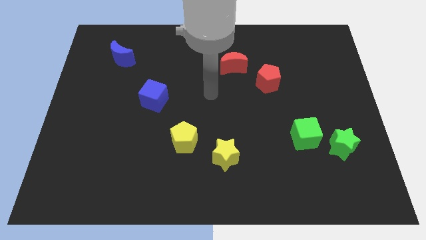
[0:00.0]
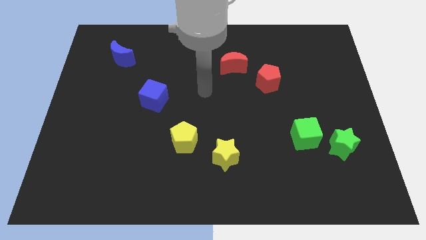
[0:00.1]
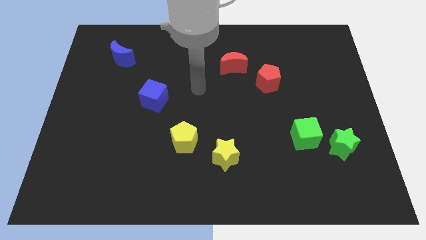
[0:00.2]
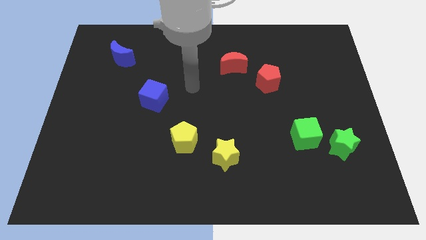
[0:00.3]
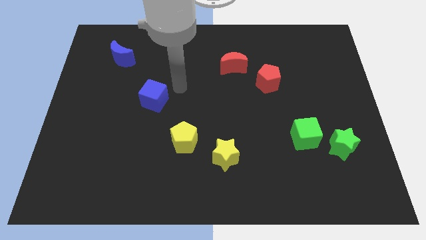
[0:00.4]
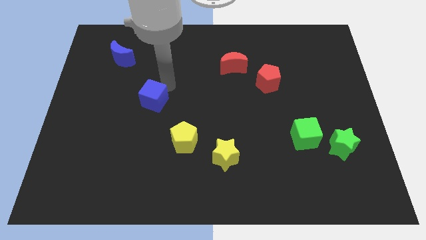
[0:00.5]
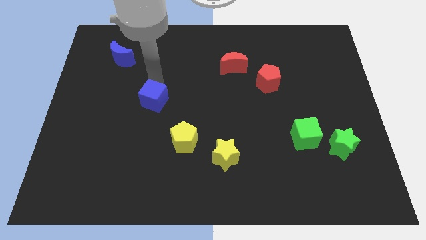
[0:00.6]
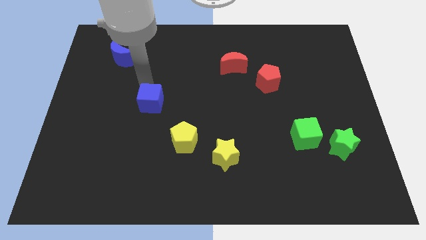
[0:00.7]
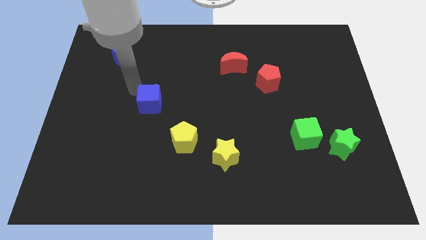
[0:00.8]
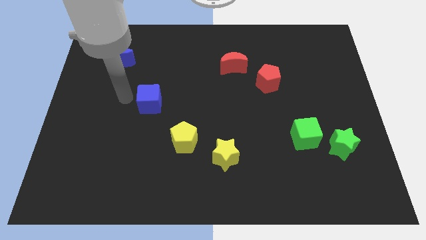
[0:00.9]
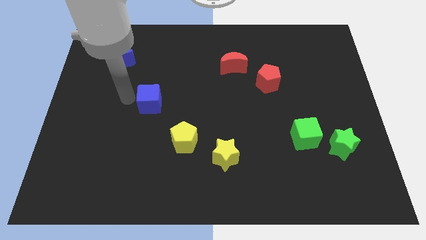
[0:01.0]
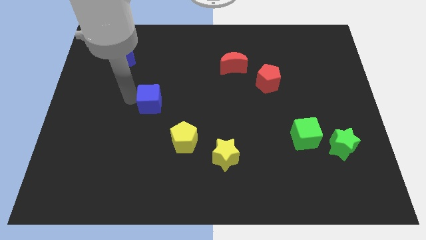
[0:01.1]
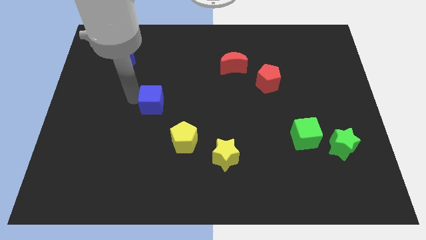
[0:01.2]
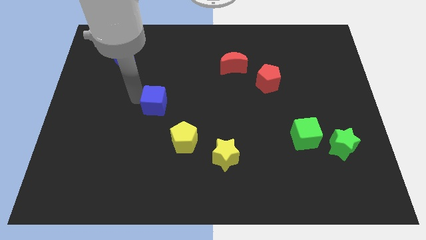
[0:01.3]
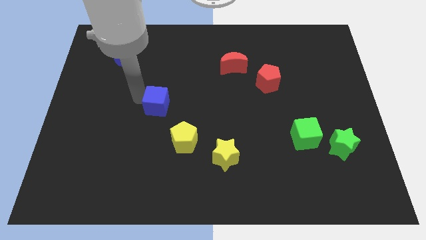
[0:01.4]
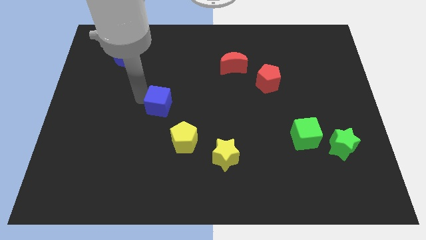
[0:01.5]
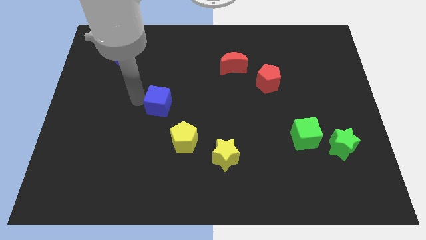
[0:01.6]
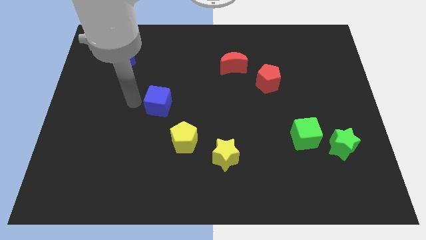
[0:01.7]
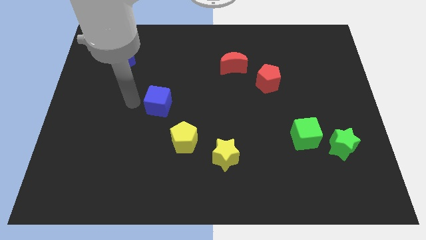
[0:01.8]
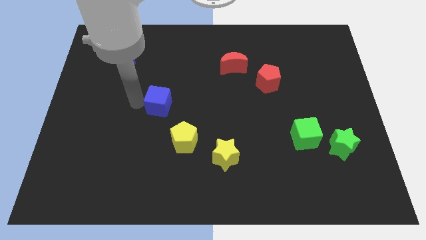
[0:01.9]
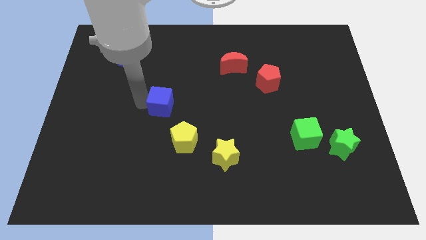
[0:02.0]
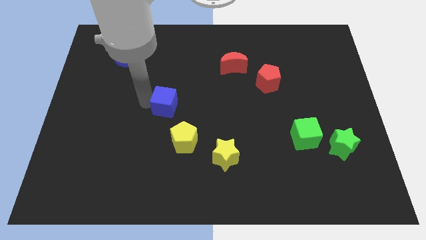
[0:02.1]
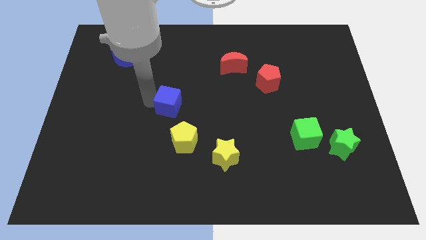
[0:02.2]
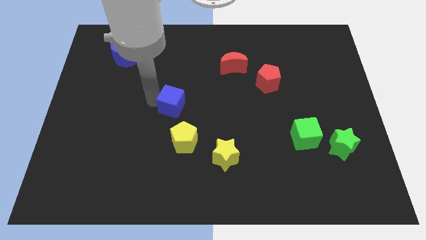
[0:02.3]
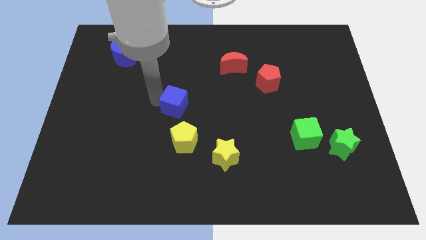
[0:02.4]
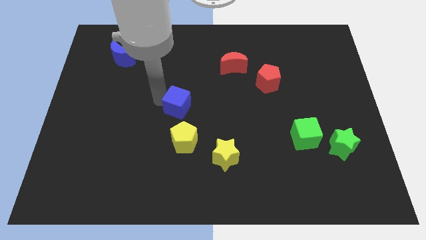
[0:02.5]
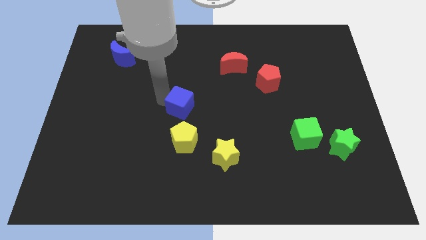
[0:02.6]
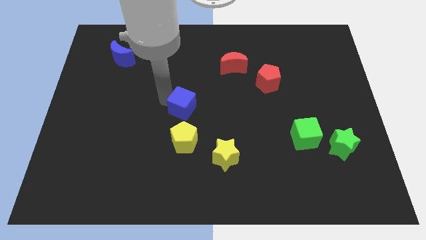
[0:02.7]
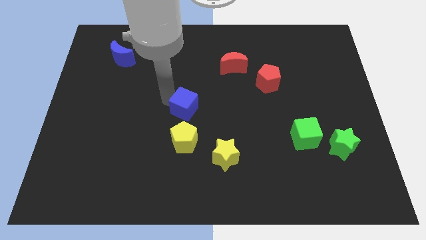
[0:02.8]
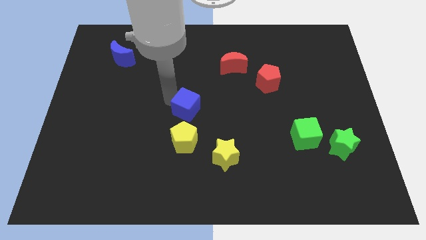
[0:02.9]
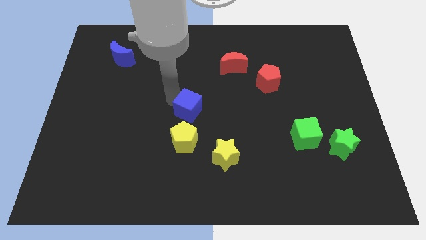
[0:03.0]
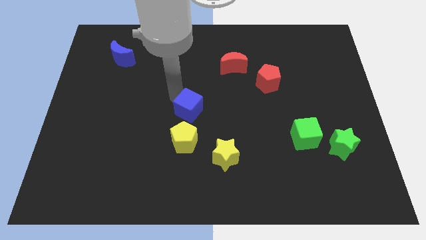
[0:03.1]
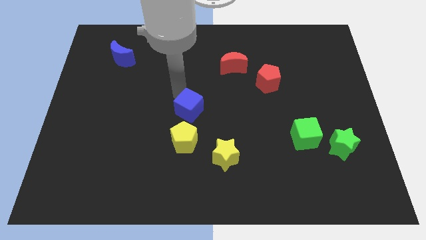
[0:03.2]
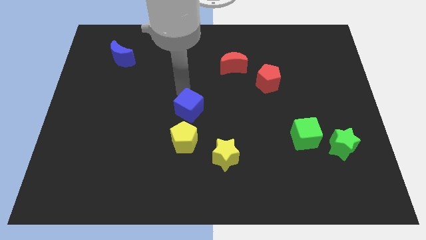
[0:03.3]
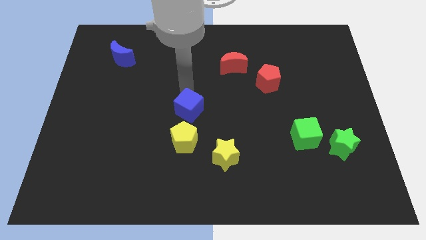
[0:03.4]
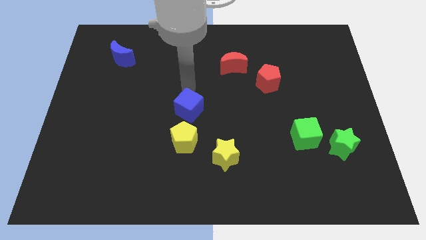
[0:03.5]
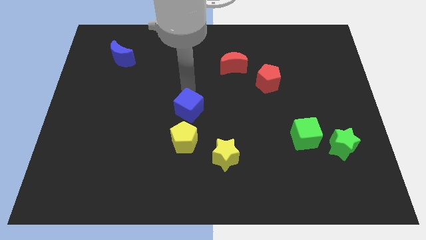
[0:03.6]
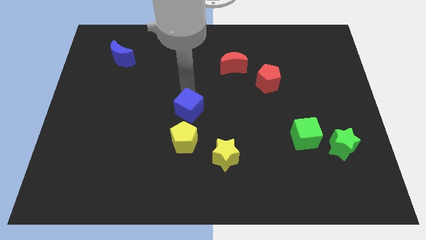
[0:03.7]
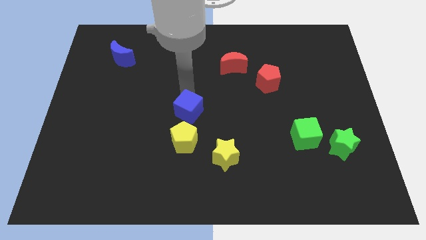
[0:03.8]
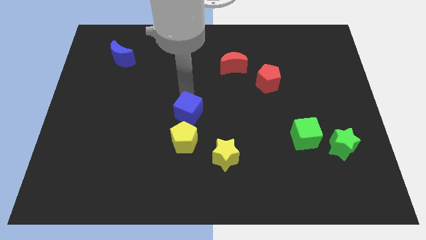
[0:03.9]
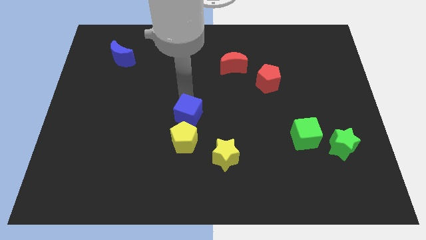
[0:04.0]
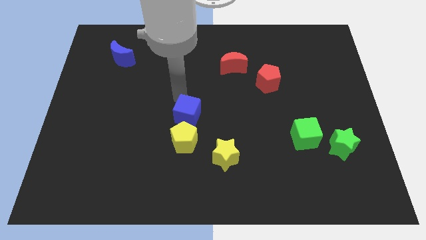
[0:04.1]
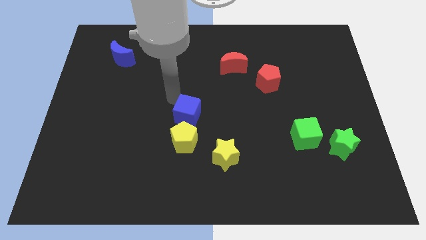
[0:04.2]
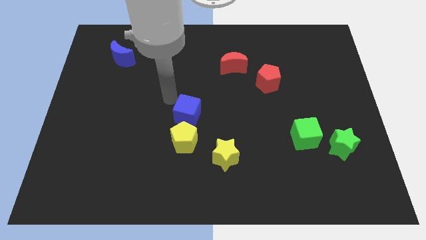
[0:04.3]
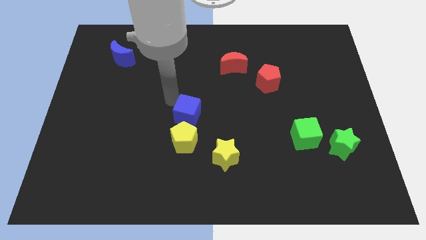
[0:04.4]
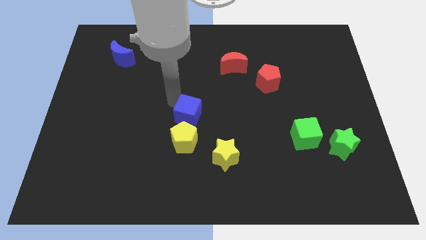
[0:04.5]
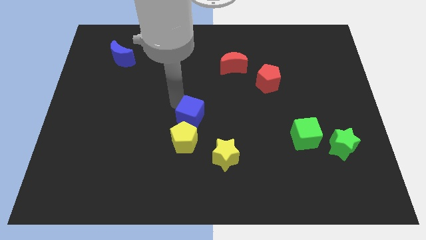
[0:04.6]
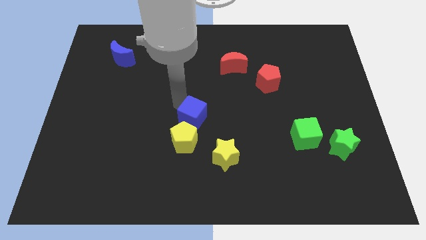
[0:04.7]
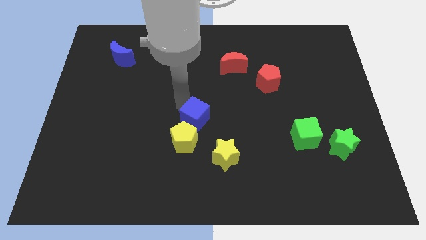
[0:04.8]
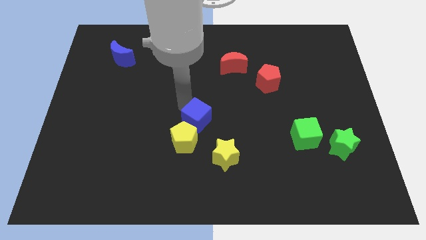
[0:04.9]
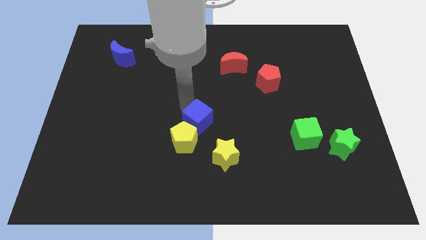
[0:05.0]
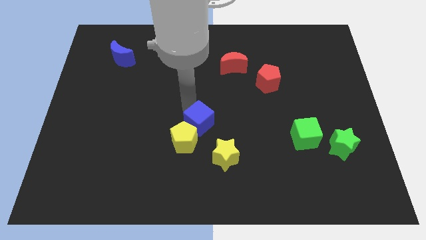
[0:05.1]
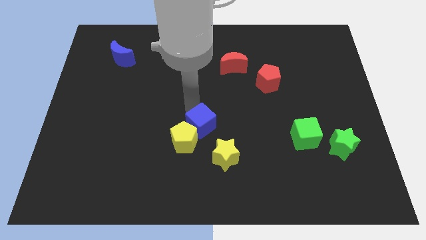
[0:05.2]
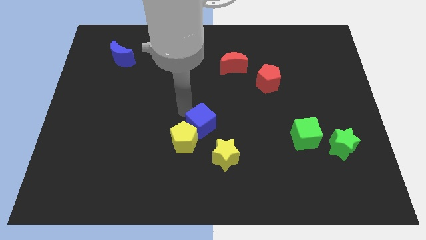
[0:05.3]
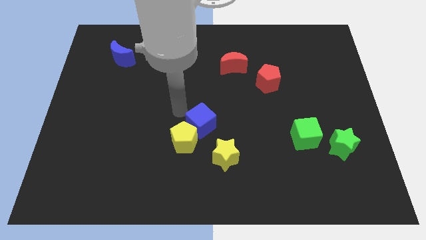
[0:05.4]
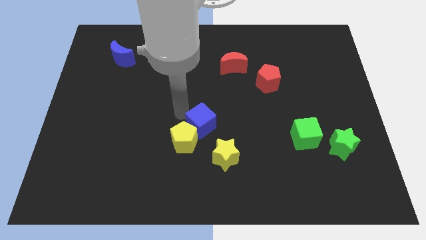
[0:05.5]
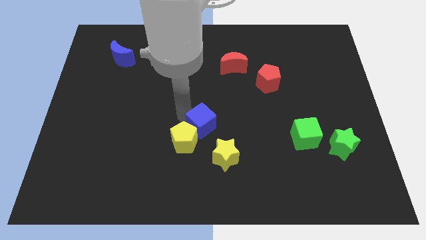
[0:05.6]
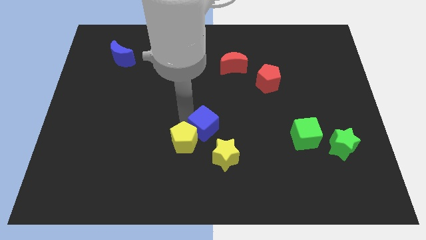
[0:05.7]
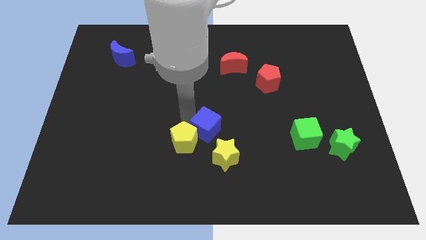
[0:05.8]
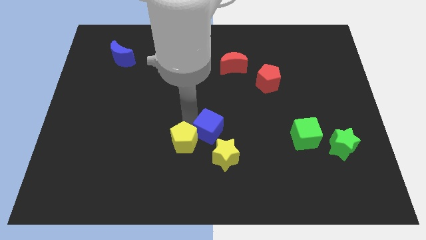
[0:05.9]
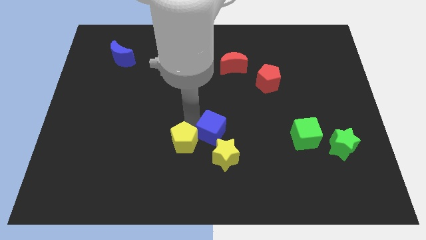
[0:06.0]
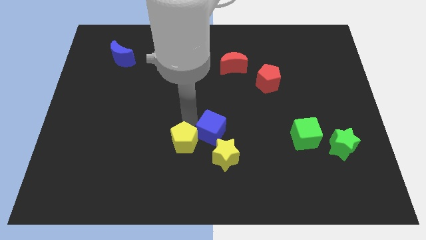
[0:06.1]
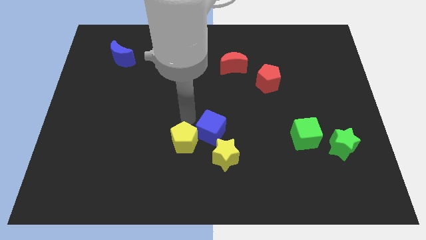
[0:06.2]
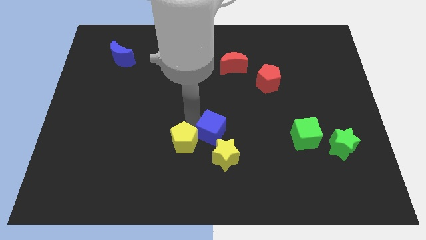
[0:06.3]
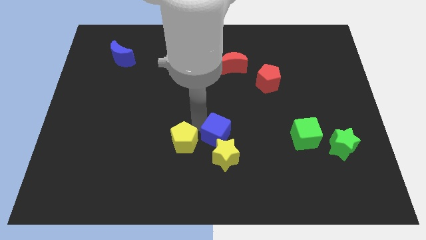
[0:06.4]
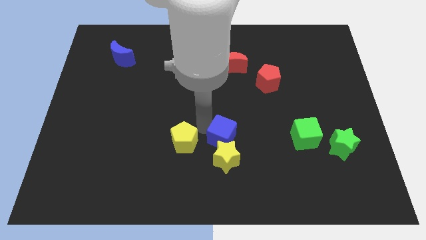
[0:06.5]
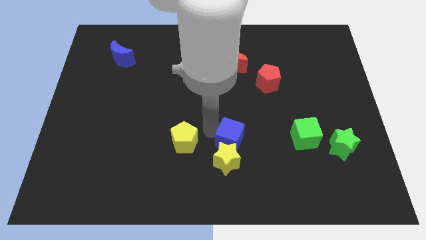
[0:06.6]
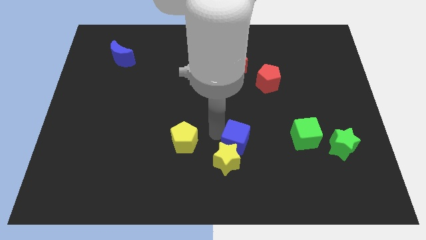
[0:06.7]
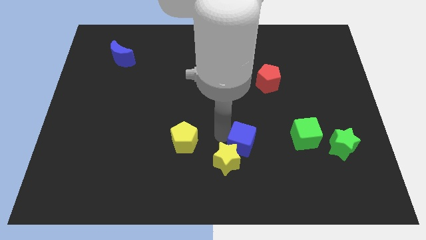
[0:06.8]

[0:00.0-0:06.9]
push the blue cube right of the yellow star
